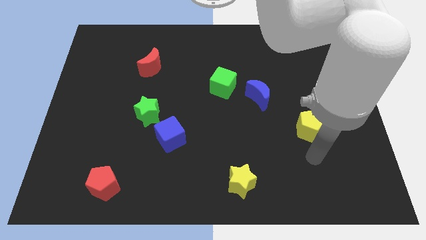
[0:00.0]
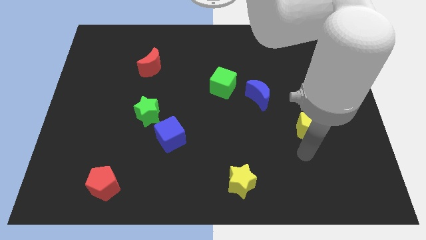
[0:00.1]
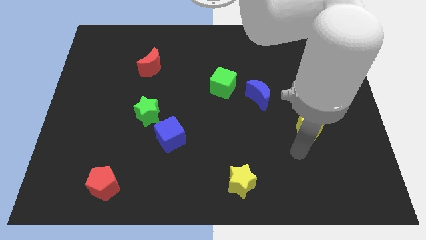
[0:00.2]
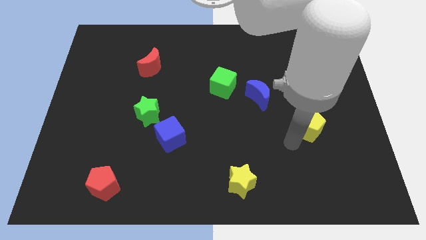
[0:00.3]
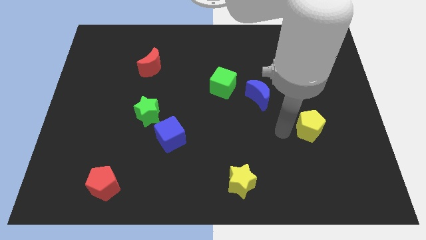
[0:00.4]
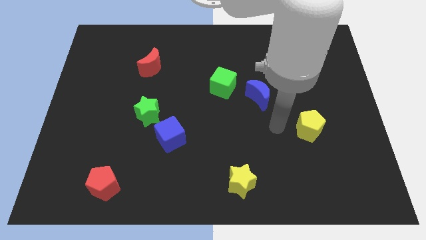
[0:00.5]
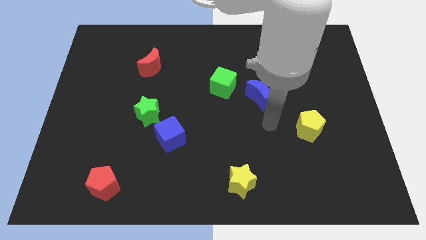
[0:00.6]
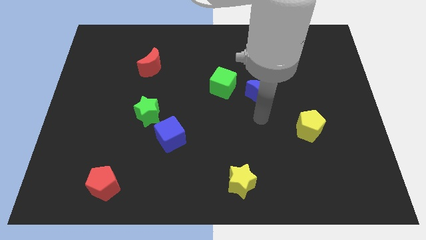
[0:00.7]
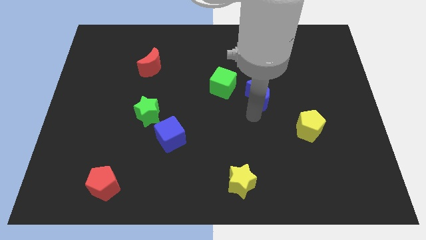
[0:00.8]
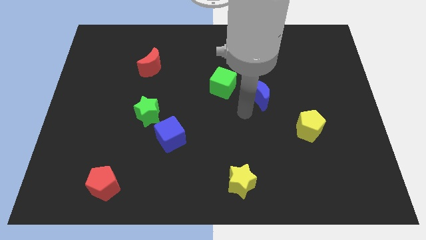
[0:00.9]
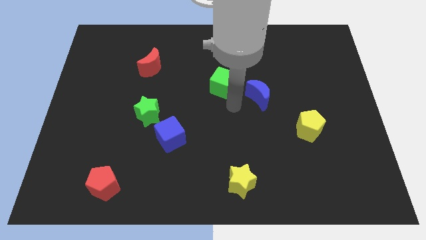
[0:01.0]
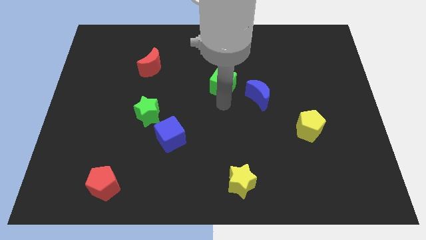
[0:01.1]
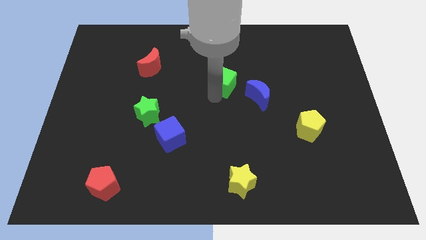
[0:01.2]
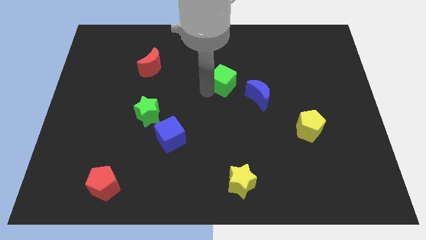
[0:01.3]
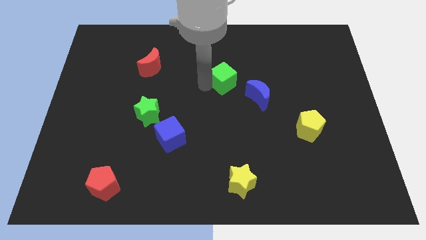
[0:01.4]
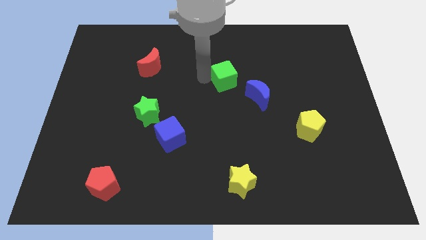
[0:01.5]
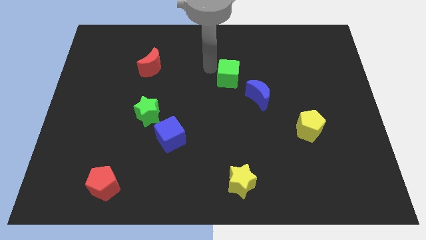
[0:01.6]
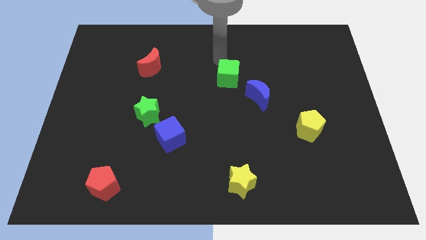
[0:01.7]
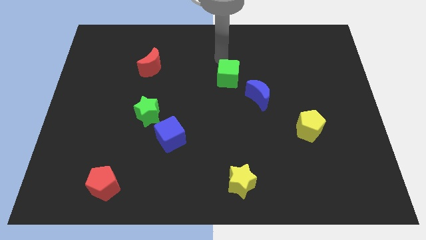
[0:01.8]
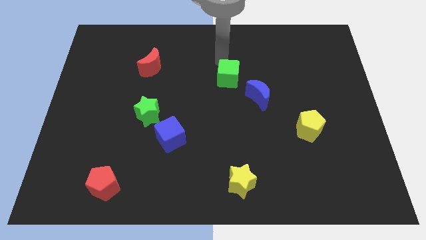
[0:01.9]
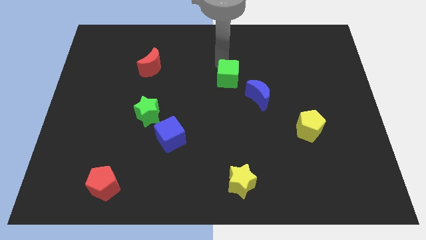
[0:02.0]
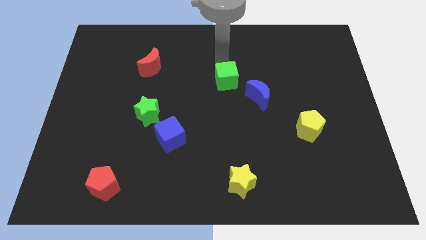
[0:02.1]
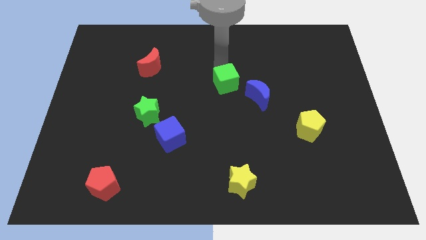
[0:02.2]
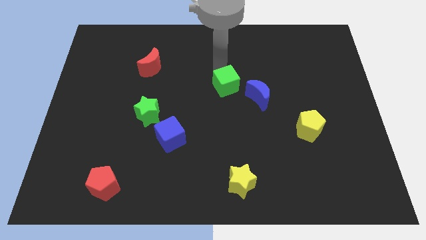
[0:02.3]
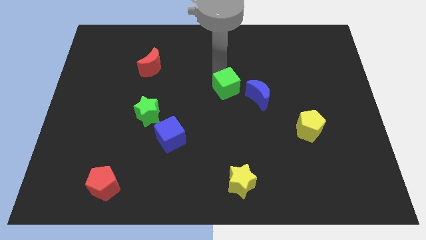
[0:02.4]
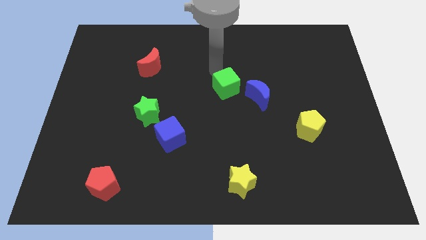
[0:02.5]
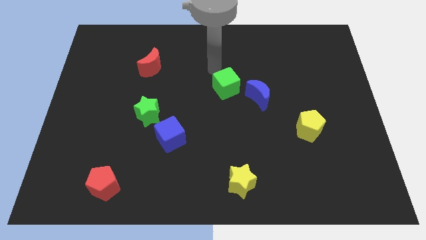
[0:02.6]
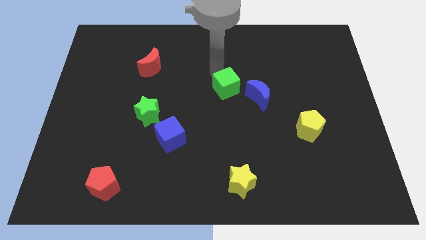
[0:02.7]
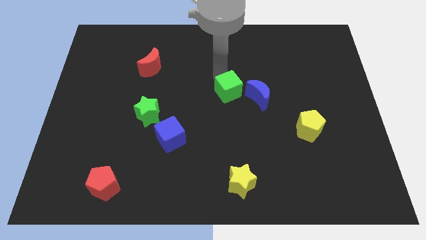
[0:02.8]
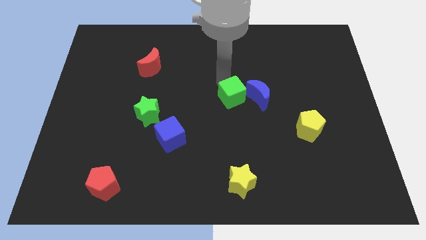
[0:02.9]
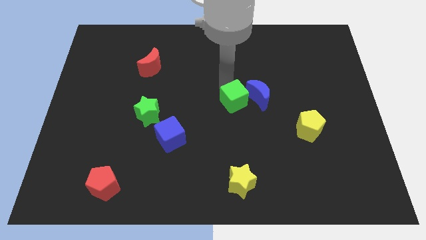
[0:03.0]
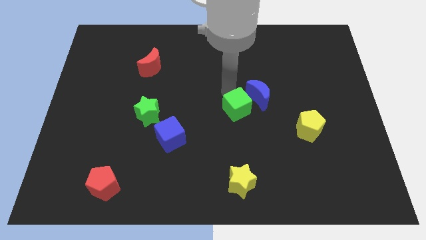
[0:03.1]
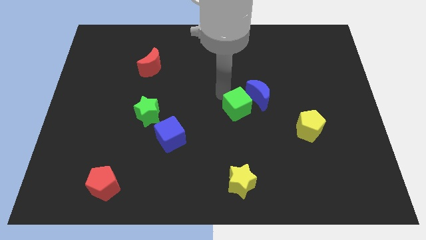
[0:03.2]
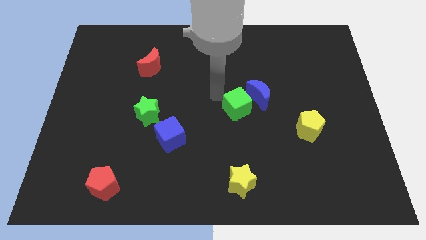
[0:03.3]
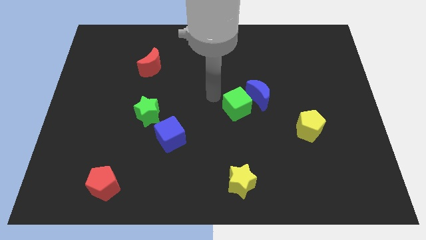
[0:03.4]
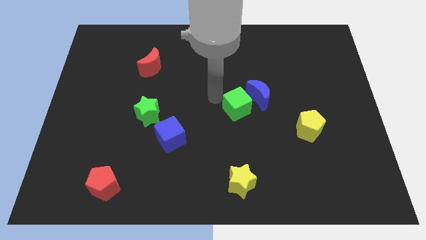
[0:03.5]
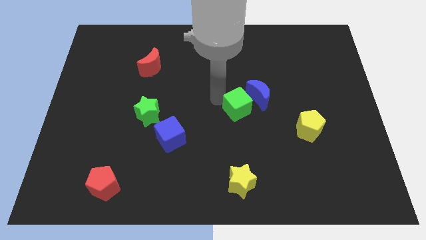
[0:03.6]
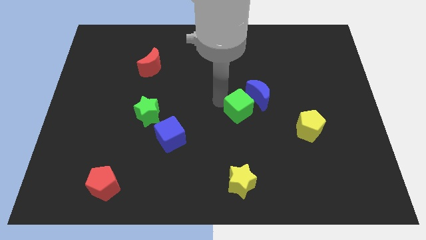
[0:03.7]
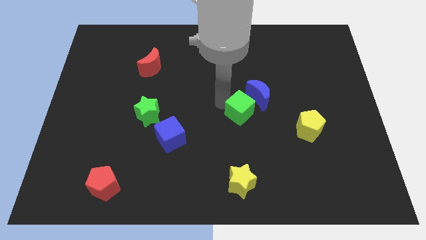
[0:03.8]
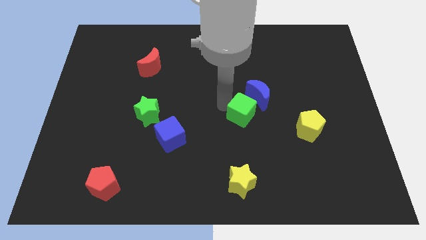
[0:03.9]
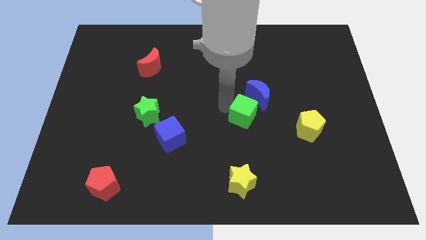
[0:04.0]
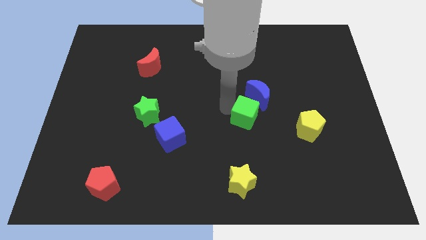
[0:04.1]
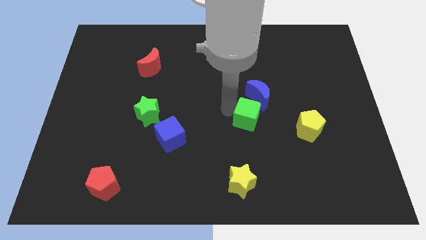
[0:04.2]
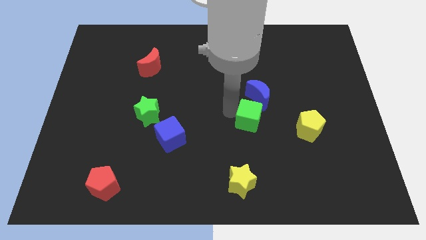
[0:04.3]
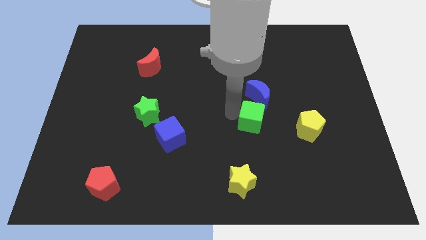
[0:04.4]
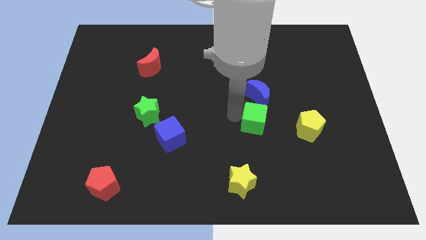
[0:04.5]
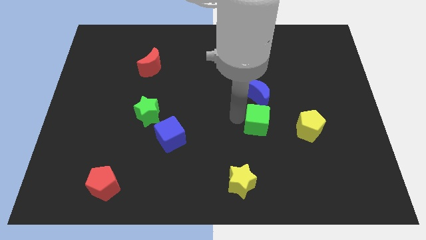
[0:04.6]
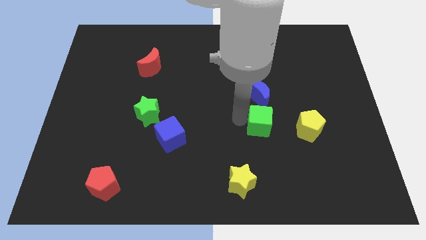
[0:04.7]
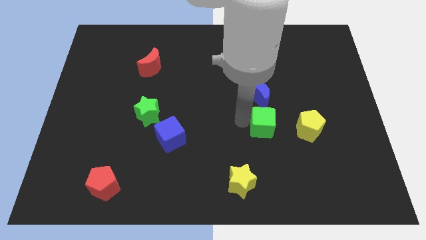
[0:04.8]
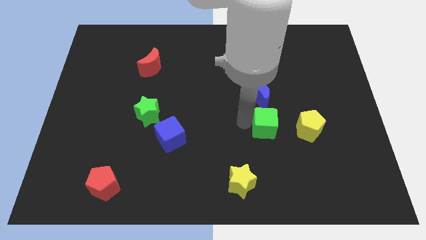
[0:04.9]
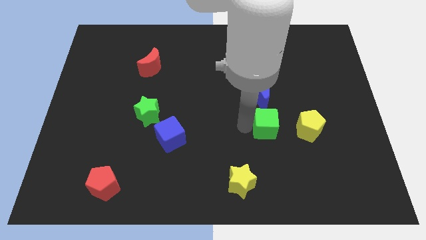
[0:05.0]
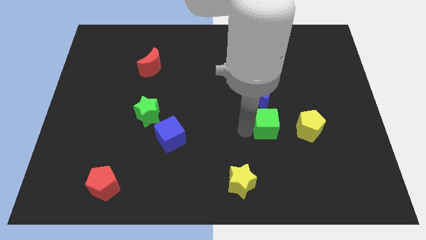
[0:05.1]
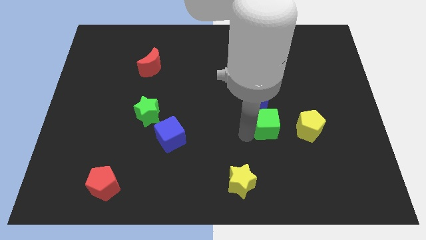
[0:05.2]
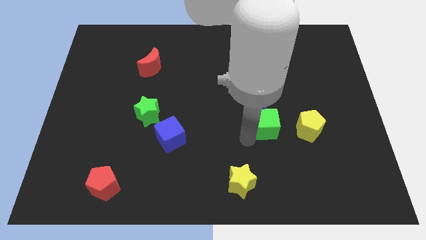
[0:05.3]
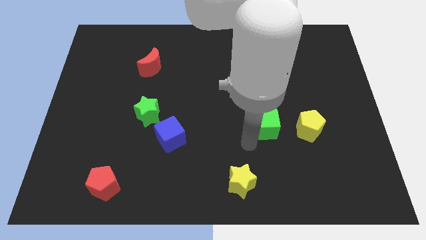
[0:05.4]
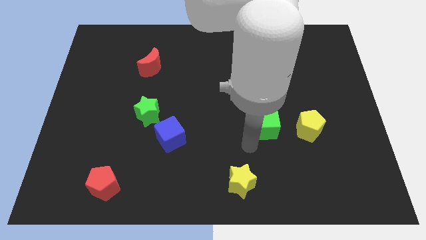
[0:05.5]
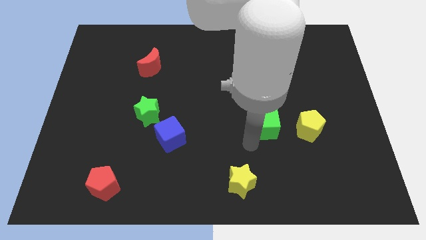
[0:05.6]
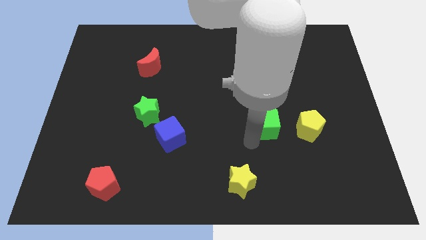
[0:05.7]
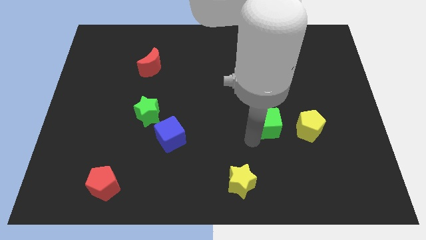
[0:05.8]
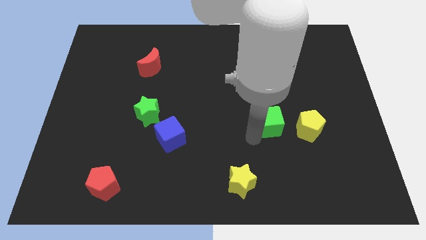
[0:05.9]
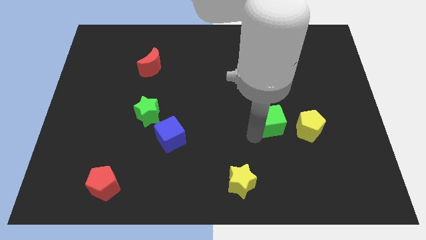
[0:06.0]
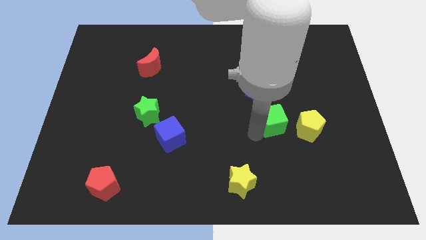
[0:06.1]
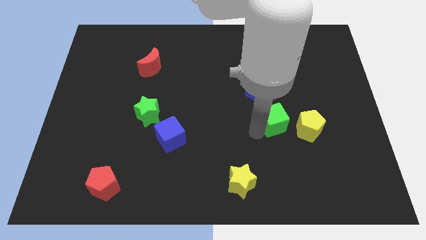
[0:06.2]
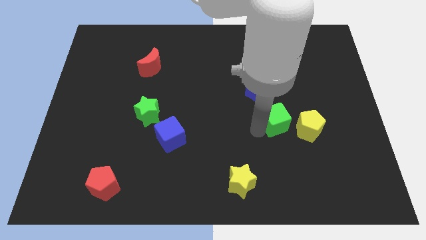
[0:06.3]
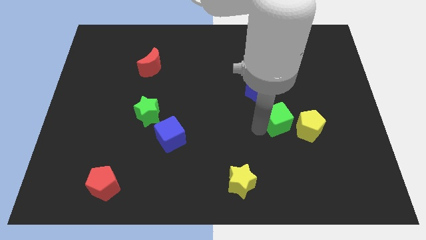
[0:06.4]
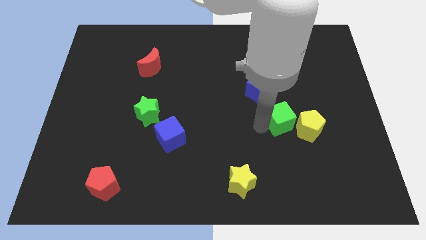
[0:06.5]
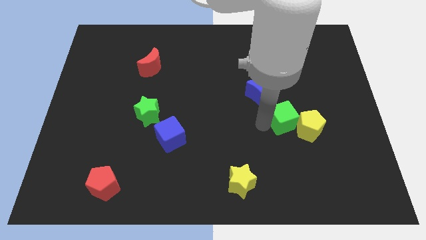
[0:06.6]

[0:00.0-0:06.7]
slide the green cube close to the yellow pentagon

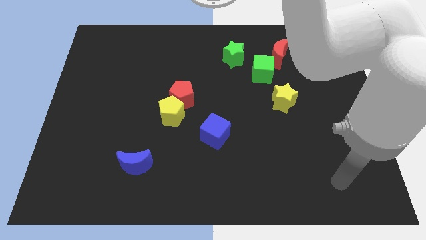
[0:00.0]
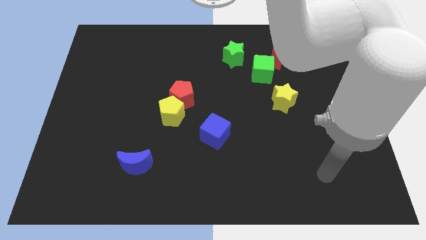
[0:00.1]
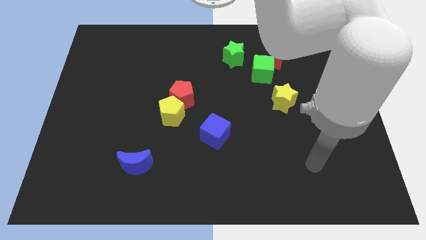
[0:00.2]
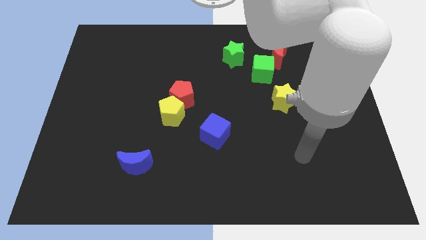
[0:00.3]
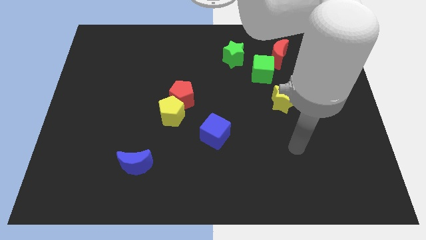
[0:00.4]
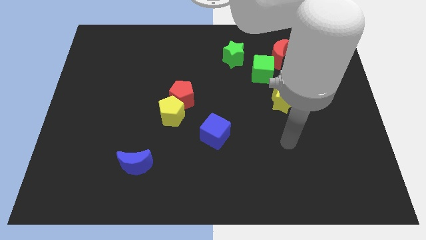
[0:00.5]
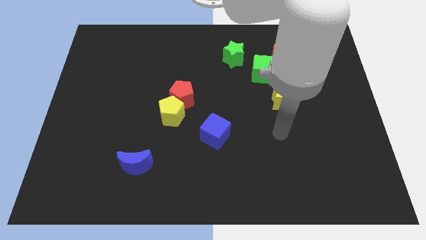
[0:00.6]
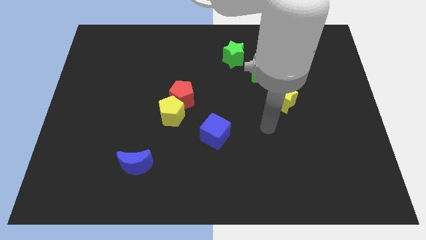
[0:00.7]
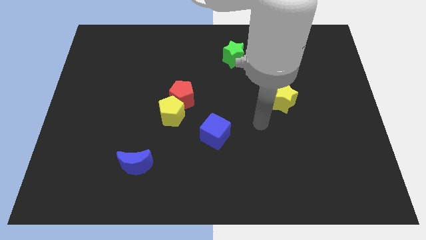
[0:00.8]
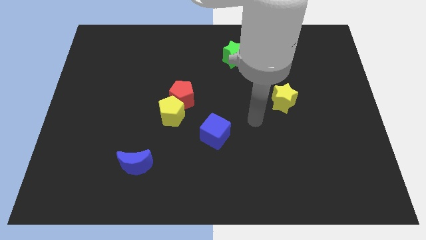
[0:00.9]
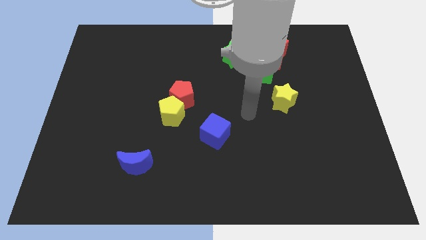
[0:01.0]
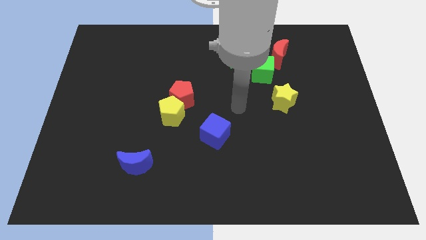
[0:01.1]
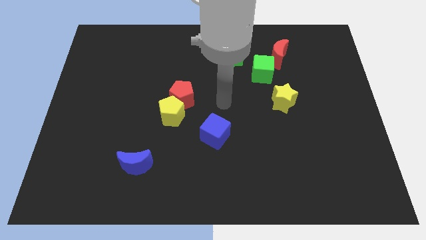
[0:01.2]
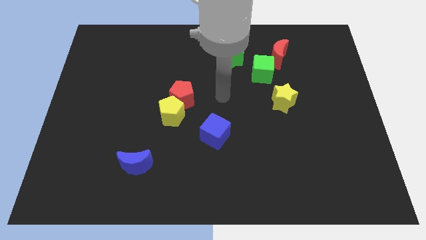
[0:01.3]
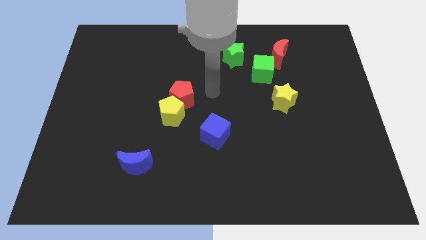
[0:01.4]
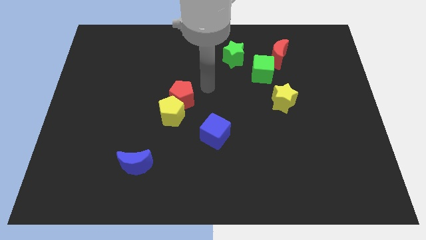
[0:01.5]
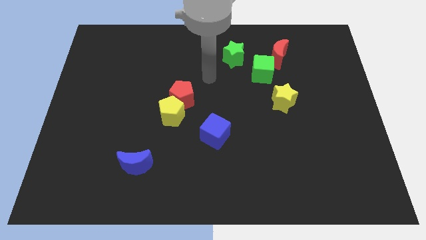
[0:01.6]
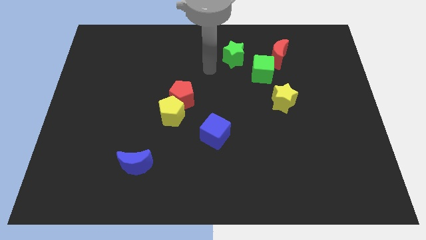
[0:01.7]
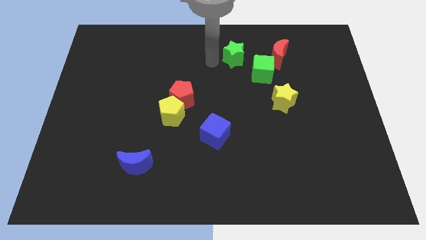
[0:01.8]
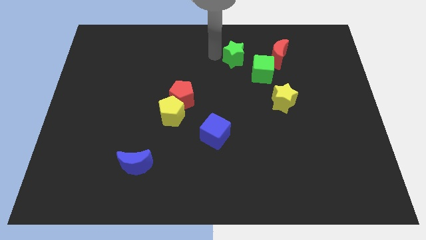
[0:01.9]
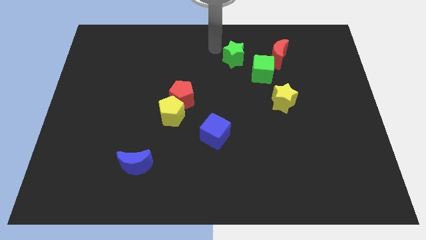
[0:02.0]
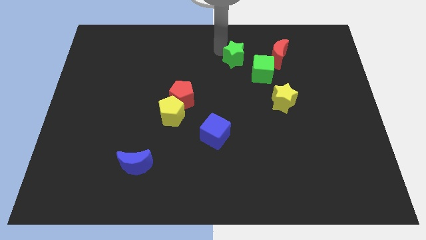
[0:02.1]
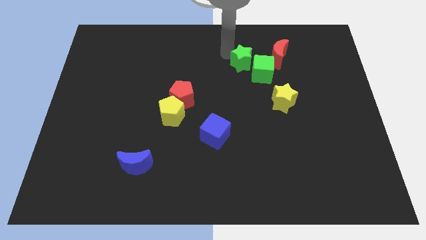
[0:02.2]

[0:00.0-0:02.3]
put the green star towards the green cube
